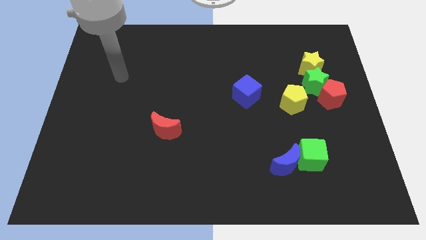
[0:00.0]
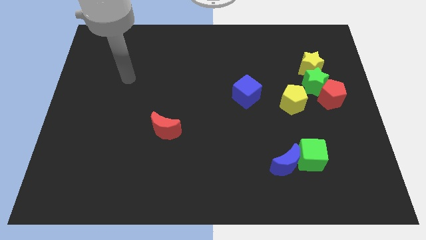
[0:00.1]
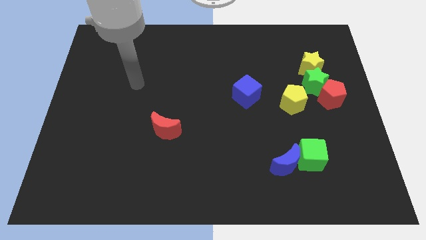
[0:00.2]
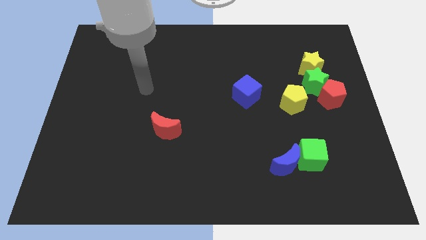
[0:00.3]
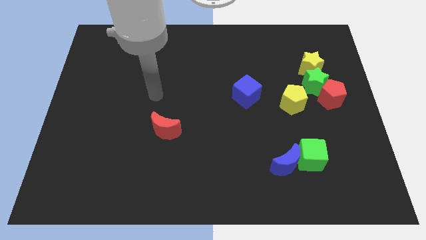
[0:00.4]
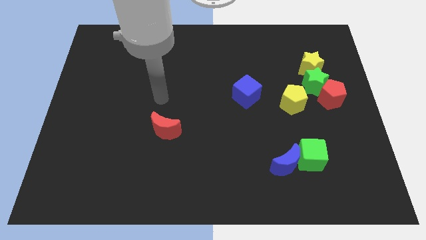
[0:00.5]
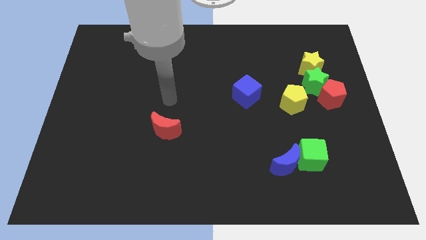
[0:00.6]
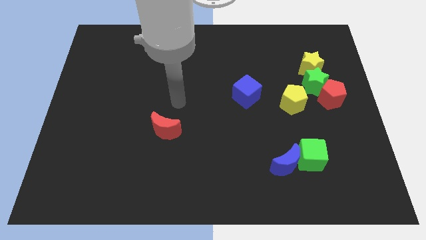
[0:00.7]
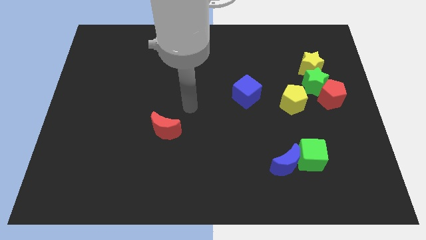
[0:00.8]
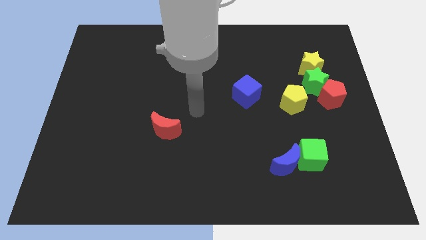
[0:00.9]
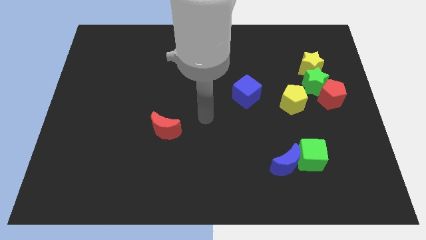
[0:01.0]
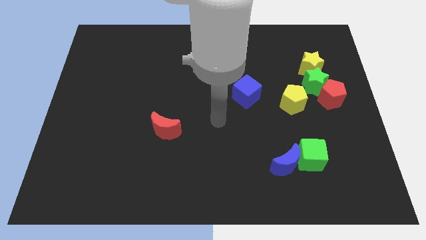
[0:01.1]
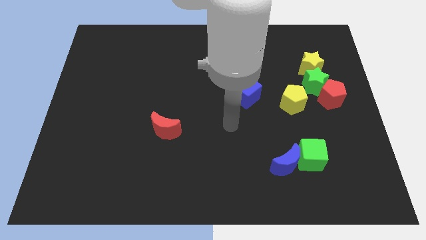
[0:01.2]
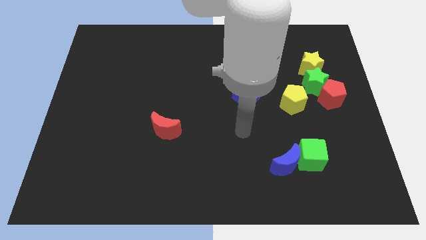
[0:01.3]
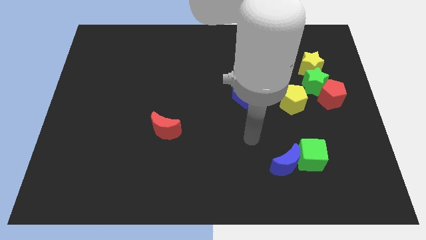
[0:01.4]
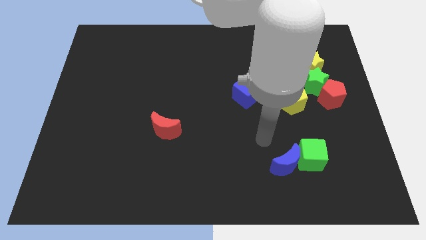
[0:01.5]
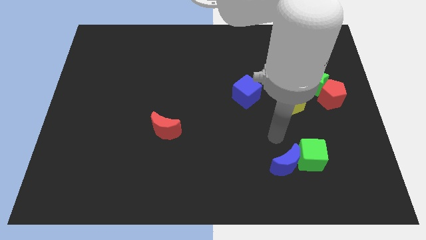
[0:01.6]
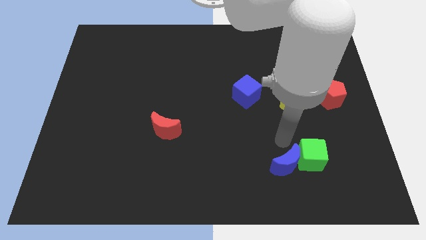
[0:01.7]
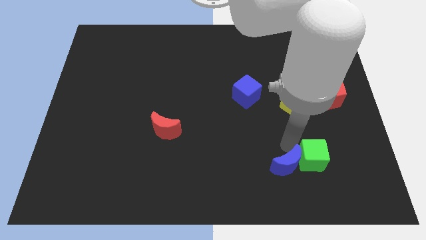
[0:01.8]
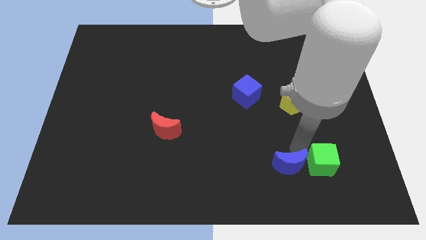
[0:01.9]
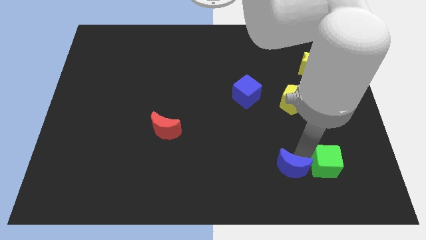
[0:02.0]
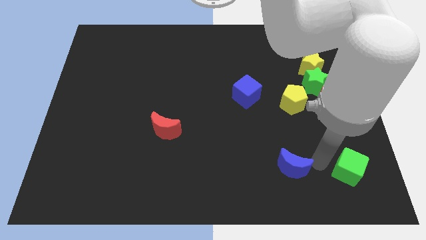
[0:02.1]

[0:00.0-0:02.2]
separate the blue moon from the green cube

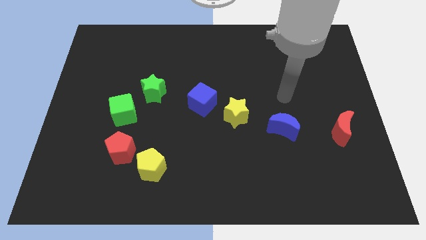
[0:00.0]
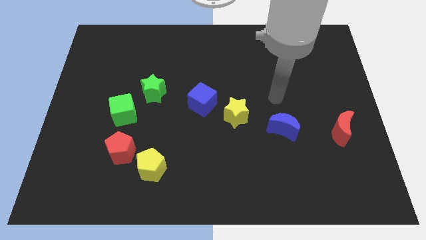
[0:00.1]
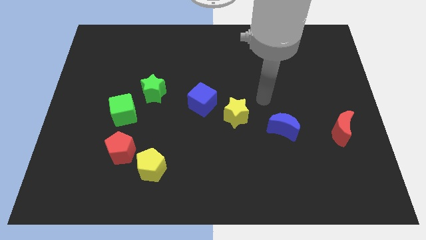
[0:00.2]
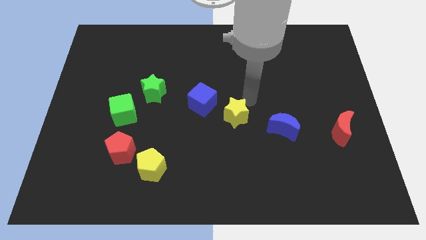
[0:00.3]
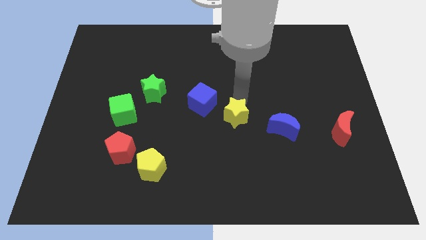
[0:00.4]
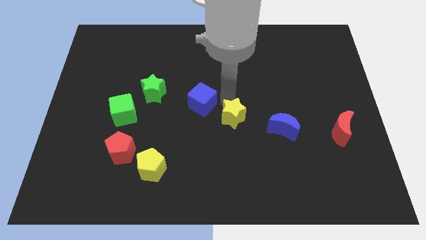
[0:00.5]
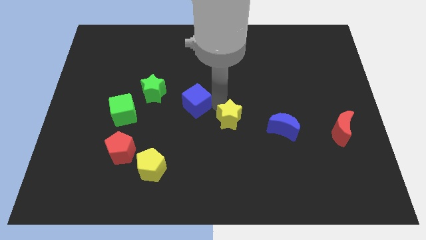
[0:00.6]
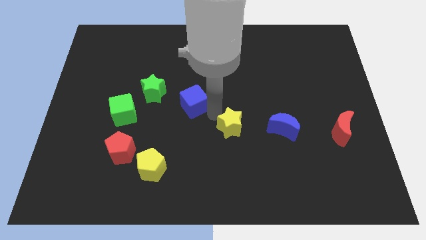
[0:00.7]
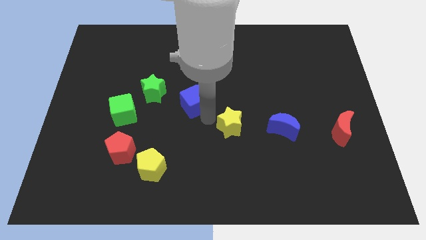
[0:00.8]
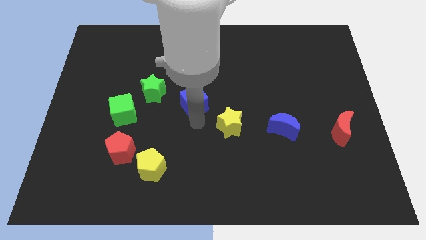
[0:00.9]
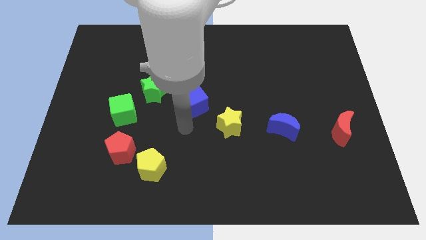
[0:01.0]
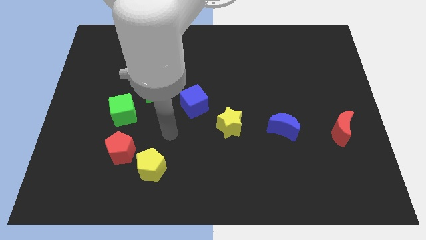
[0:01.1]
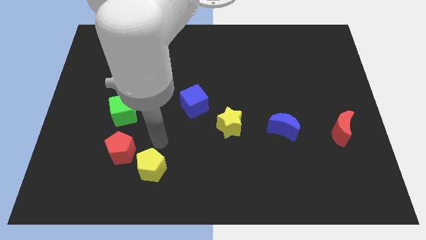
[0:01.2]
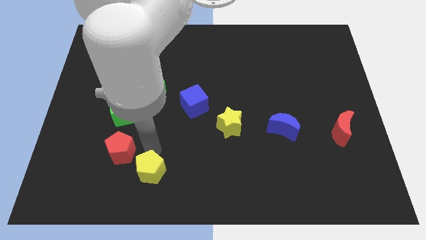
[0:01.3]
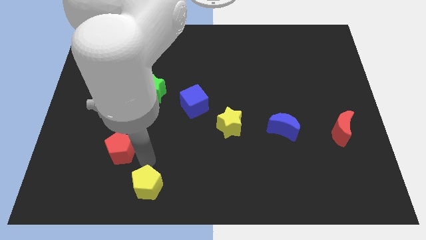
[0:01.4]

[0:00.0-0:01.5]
move the red pentagon away from the yellow pentagon

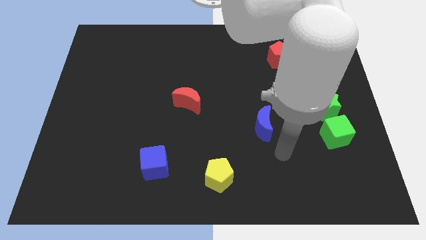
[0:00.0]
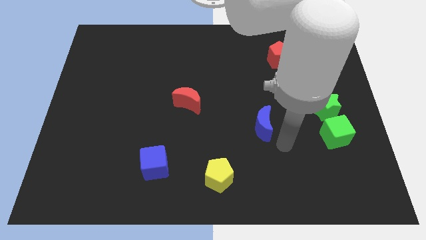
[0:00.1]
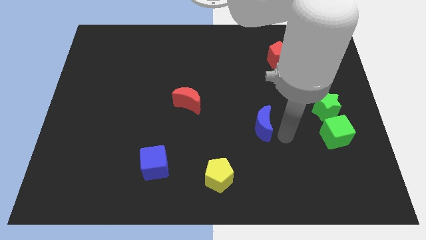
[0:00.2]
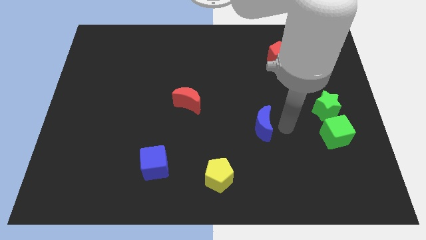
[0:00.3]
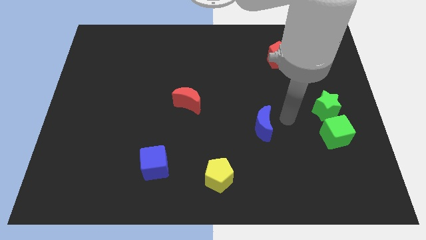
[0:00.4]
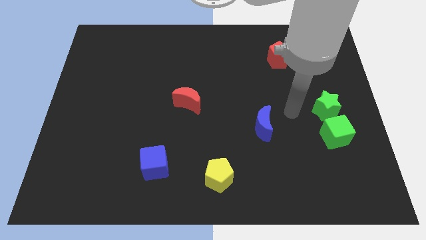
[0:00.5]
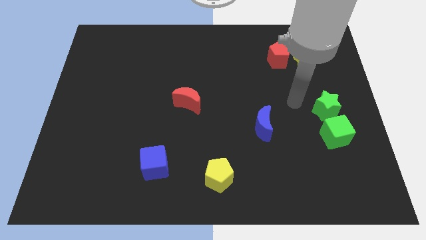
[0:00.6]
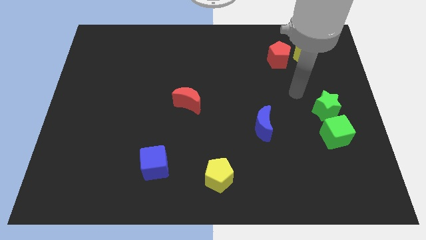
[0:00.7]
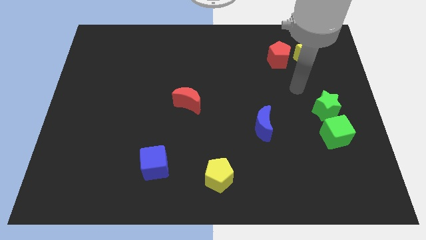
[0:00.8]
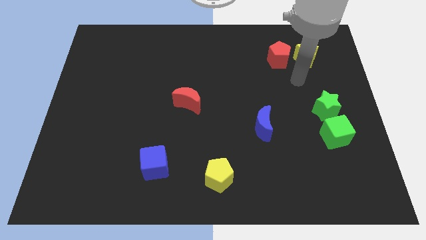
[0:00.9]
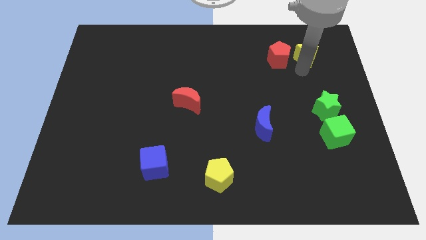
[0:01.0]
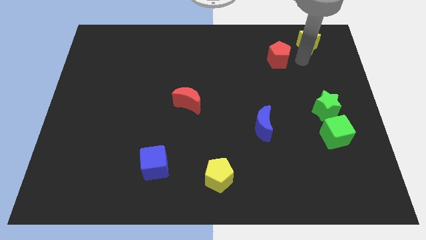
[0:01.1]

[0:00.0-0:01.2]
move the red pentagon away from the yellow star

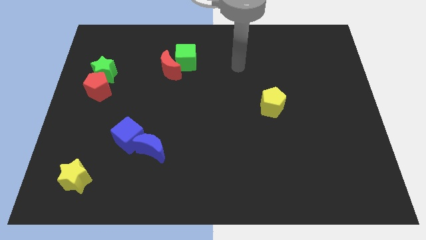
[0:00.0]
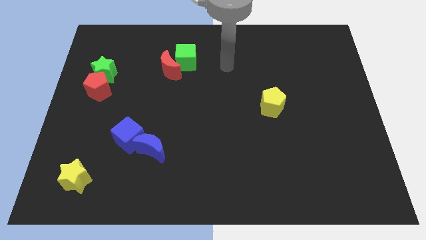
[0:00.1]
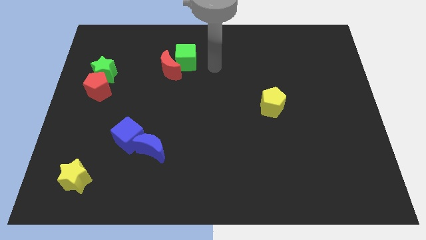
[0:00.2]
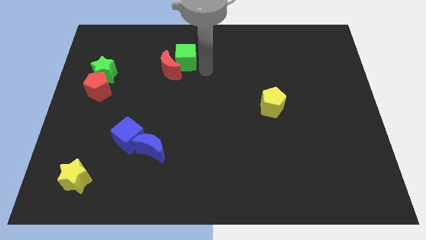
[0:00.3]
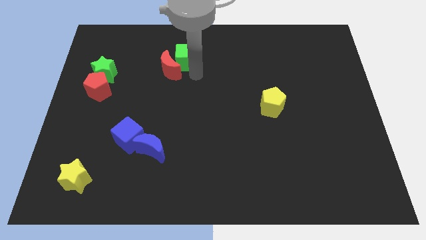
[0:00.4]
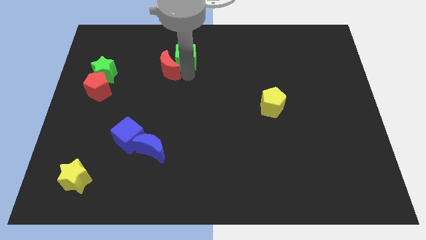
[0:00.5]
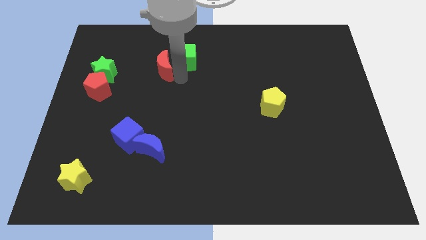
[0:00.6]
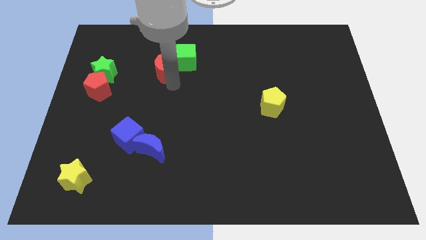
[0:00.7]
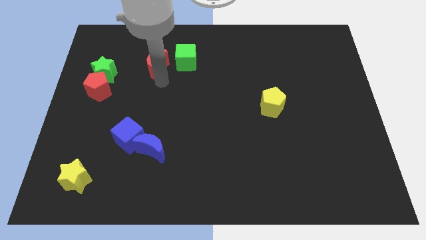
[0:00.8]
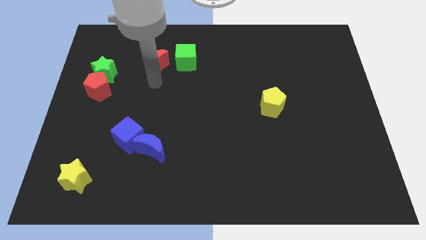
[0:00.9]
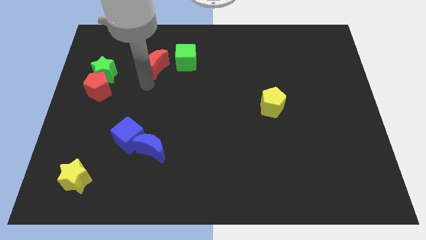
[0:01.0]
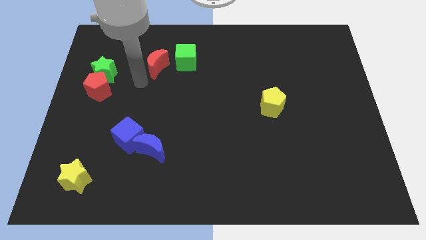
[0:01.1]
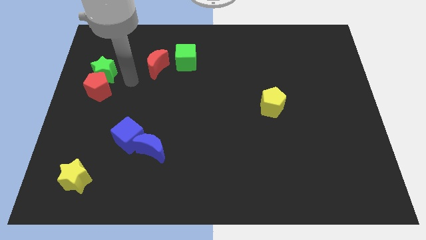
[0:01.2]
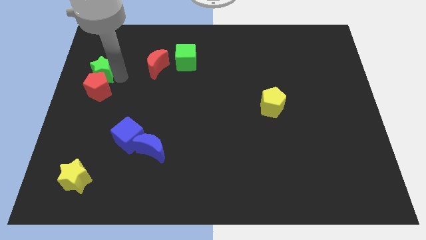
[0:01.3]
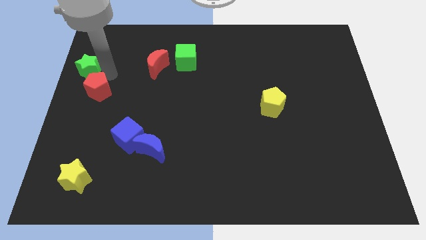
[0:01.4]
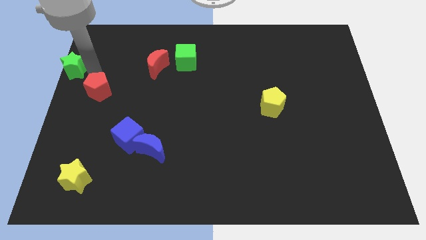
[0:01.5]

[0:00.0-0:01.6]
move the red pentagon away from the green star

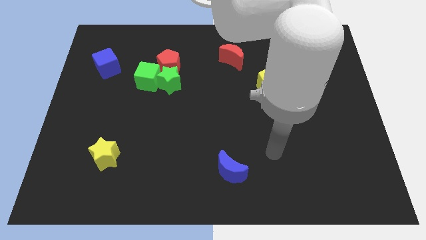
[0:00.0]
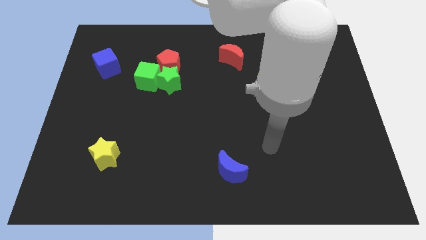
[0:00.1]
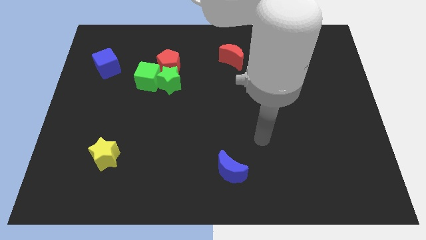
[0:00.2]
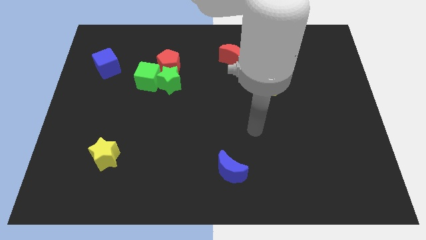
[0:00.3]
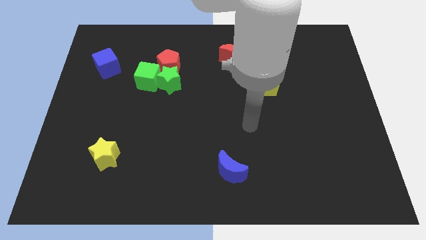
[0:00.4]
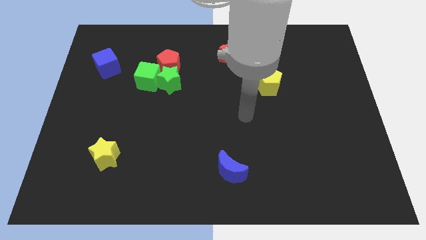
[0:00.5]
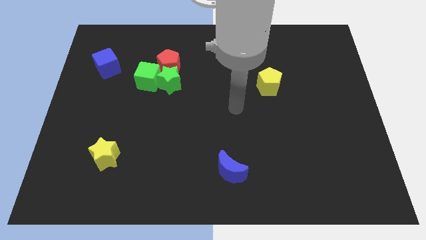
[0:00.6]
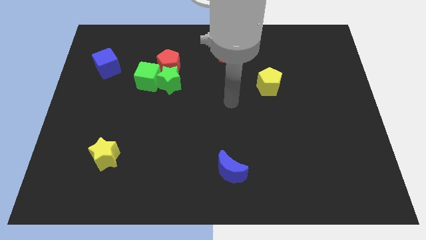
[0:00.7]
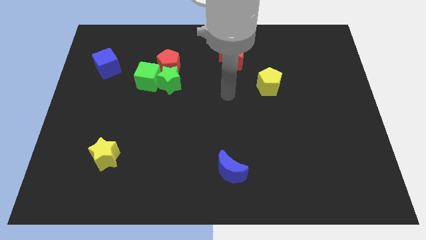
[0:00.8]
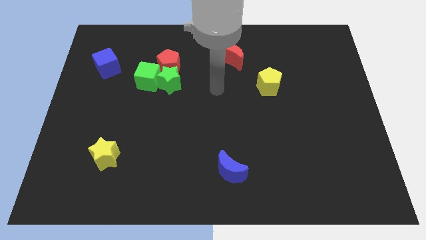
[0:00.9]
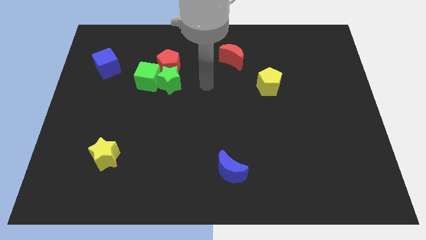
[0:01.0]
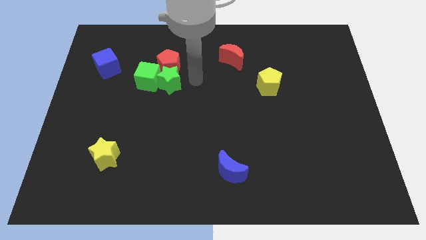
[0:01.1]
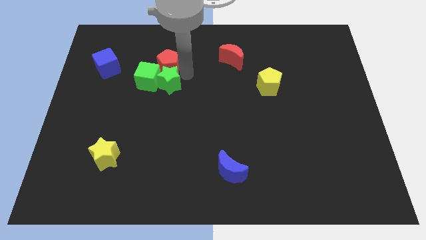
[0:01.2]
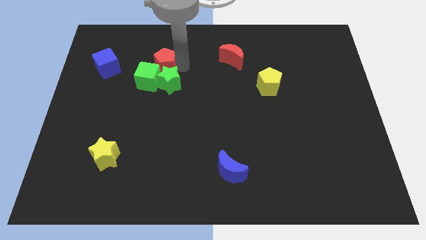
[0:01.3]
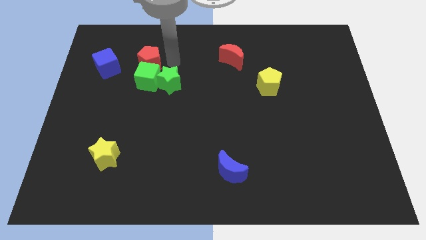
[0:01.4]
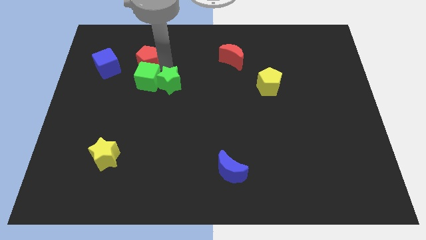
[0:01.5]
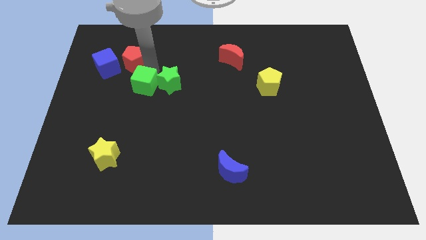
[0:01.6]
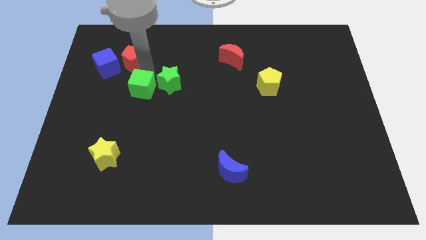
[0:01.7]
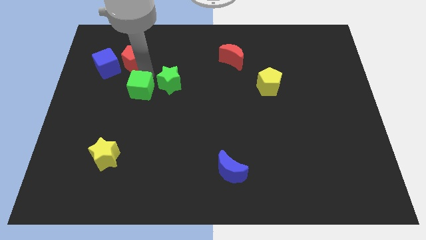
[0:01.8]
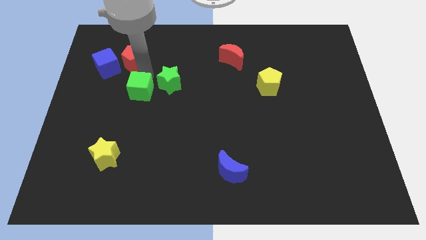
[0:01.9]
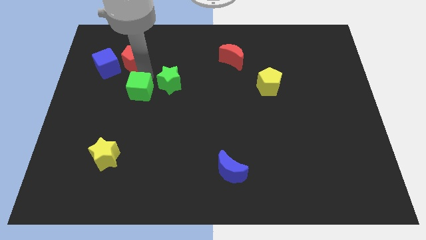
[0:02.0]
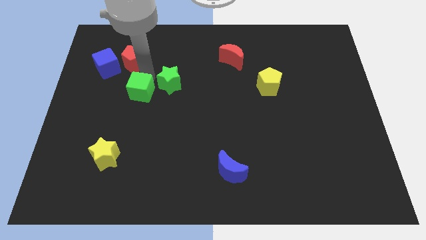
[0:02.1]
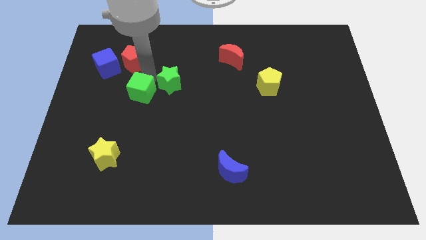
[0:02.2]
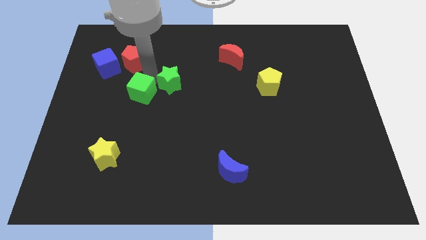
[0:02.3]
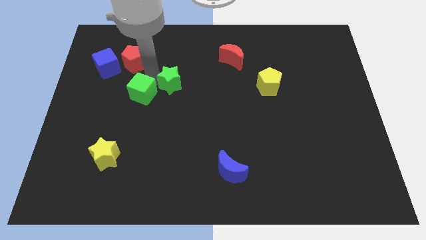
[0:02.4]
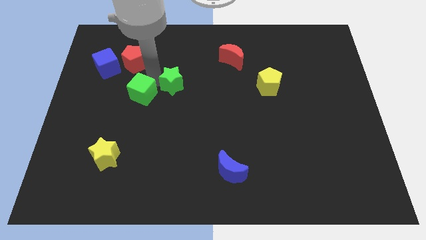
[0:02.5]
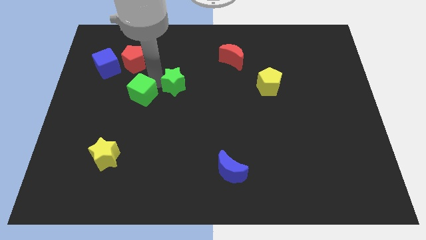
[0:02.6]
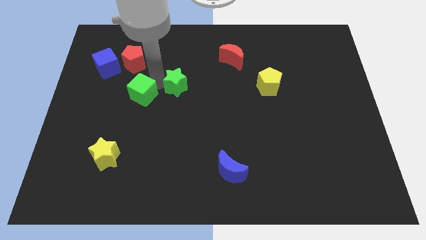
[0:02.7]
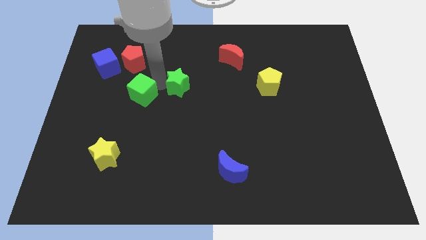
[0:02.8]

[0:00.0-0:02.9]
separate the green star from the green cube and red pentagon
